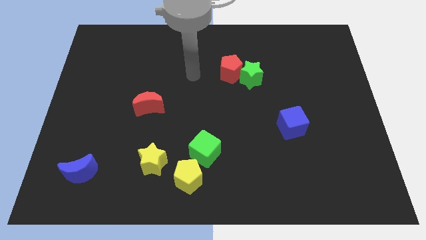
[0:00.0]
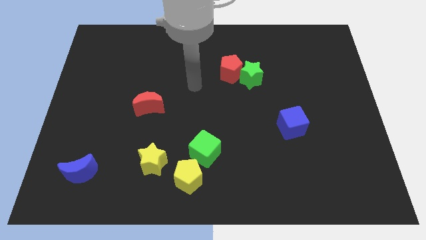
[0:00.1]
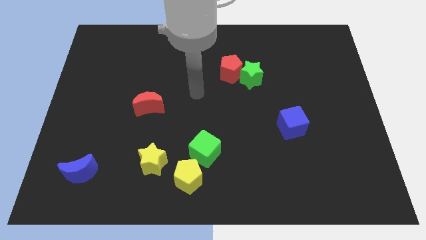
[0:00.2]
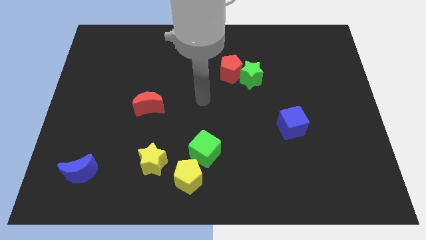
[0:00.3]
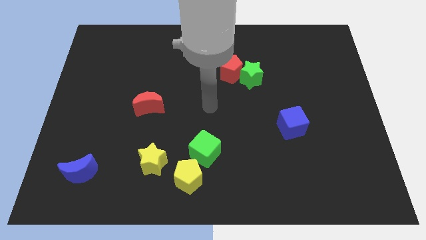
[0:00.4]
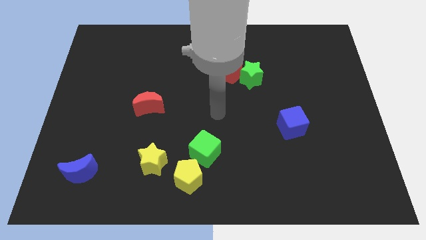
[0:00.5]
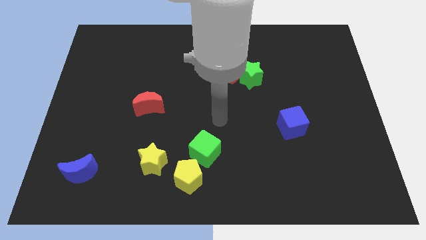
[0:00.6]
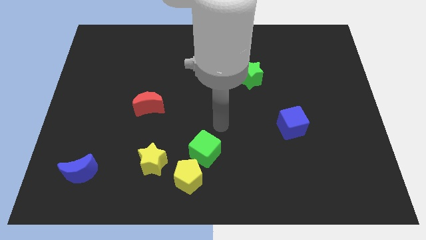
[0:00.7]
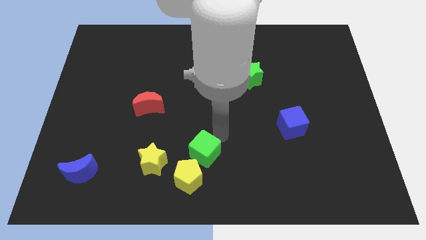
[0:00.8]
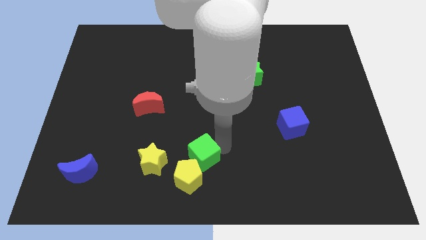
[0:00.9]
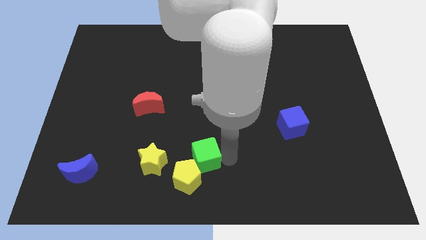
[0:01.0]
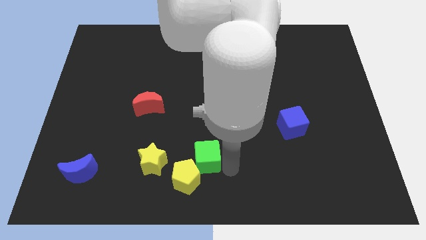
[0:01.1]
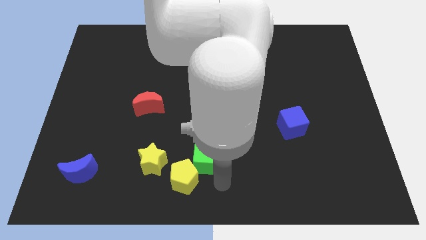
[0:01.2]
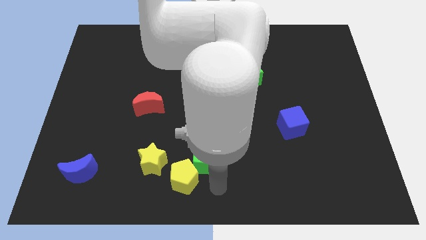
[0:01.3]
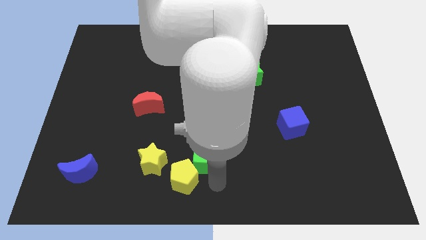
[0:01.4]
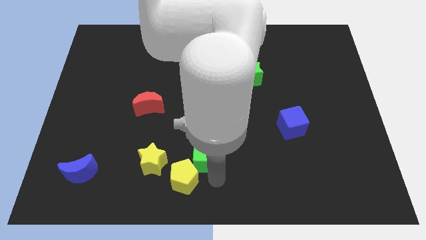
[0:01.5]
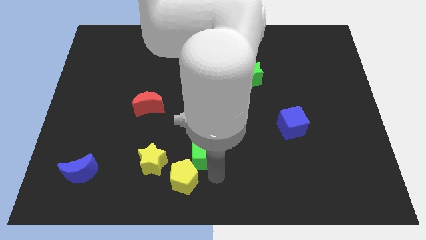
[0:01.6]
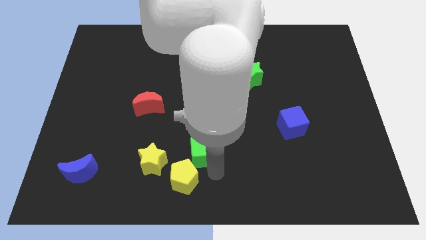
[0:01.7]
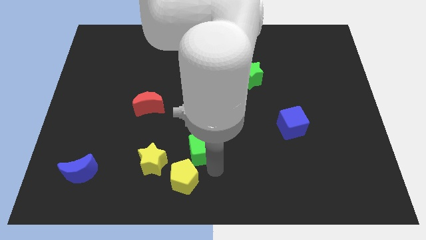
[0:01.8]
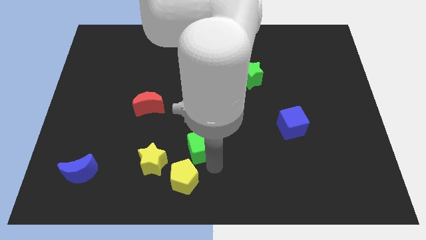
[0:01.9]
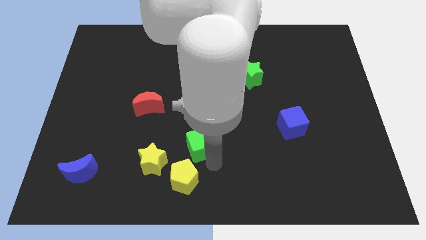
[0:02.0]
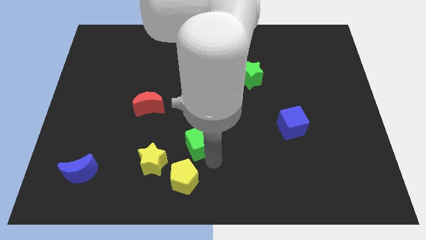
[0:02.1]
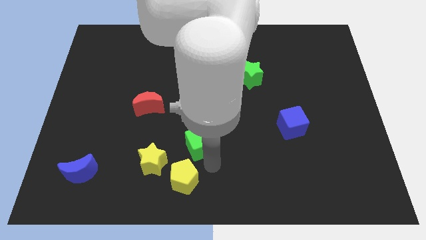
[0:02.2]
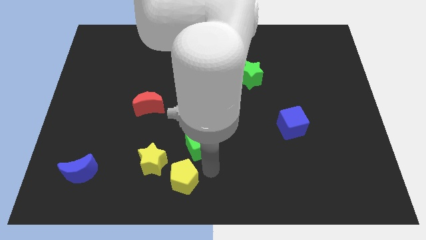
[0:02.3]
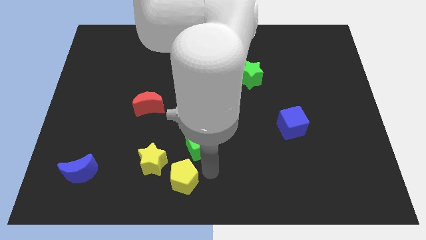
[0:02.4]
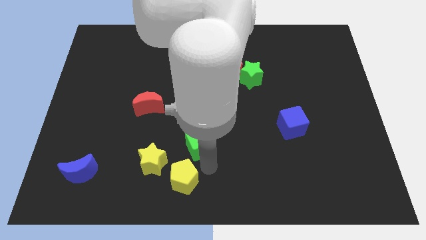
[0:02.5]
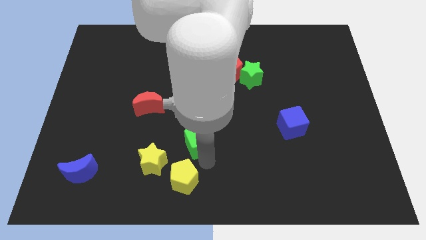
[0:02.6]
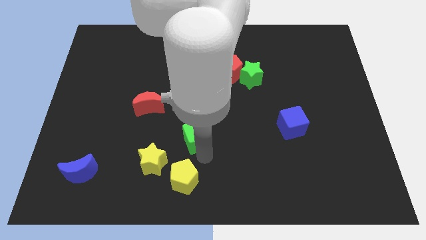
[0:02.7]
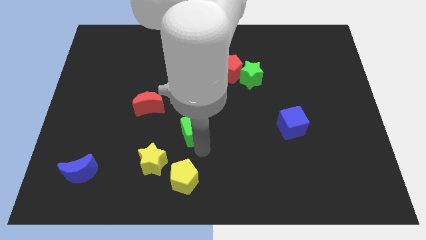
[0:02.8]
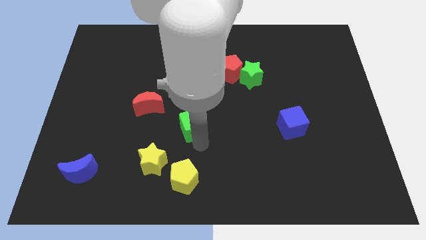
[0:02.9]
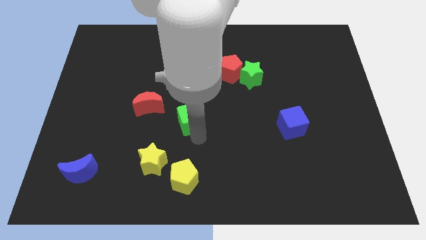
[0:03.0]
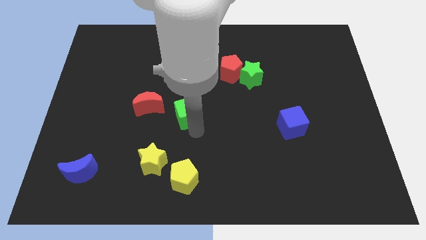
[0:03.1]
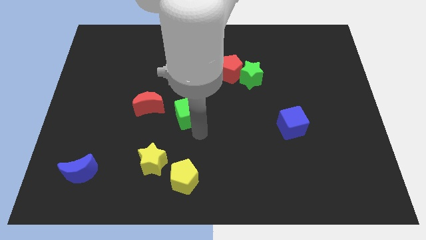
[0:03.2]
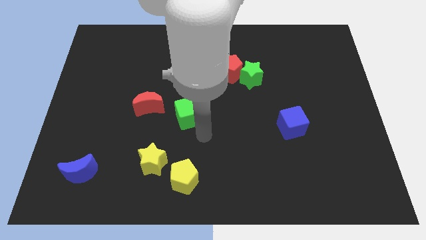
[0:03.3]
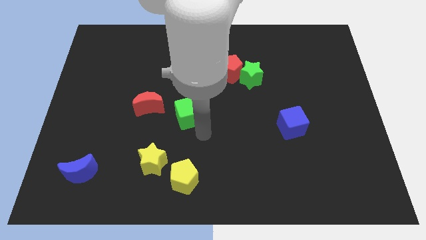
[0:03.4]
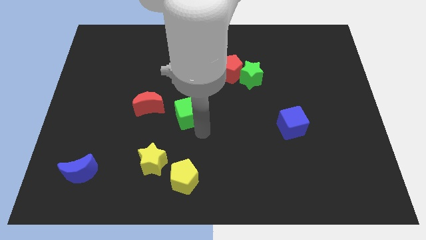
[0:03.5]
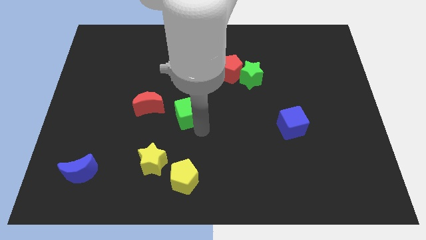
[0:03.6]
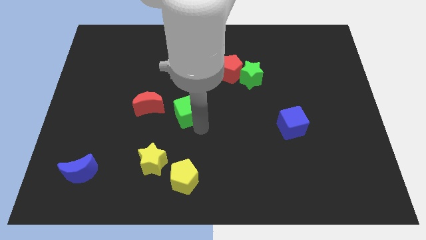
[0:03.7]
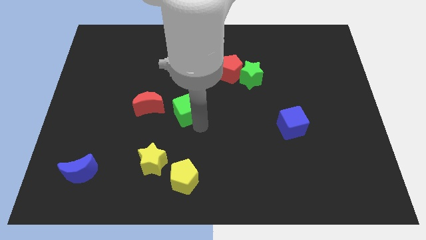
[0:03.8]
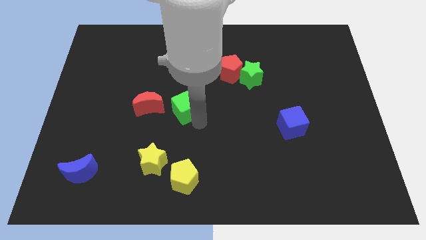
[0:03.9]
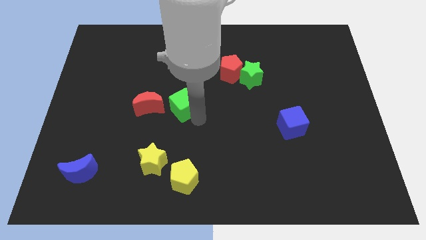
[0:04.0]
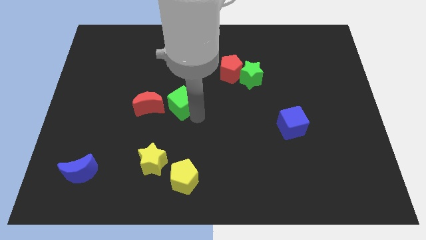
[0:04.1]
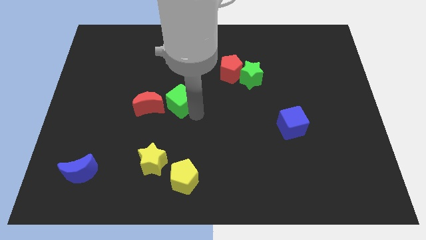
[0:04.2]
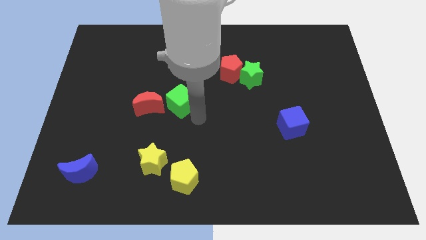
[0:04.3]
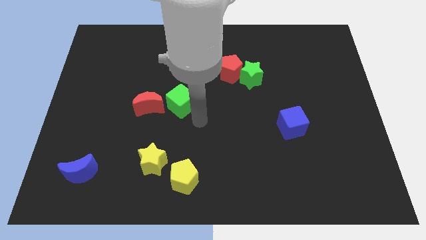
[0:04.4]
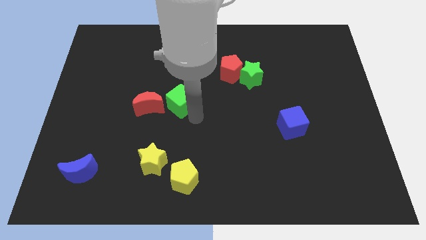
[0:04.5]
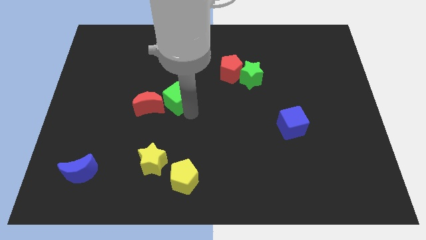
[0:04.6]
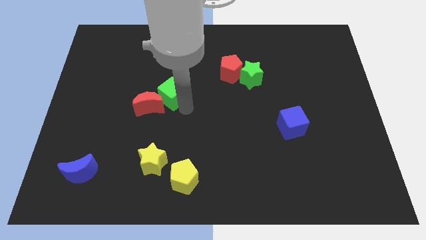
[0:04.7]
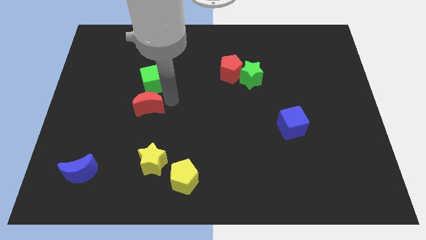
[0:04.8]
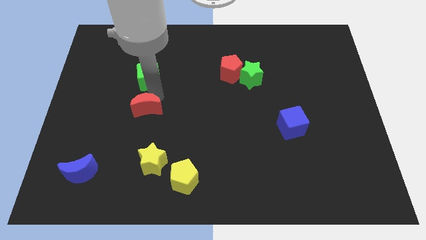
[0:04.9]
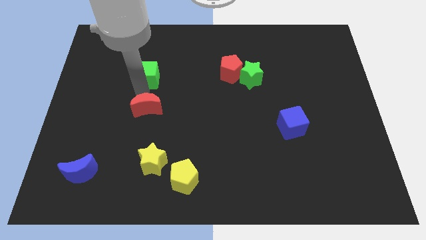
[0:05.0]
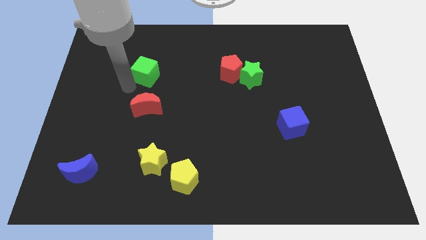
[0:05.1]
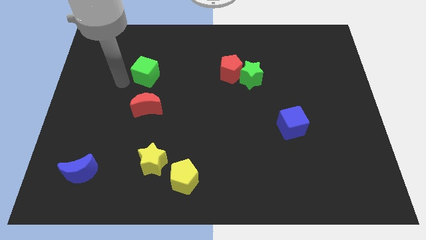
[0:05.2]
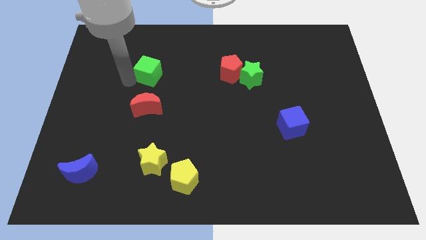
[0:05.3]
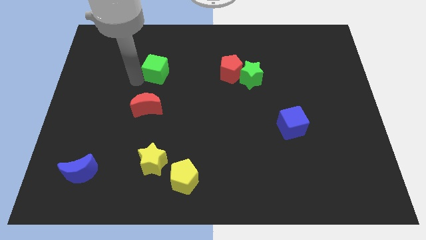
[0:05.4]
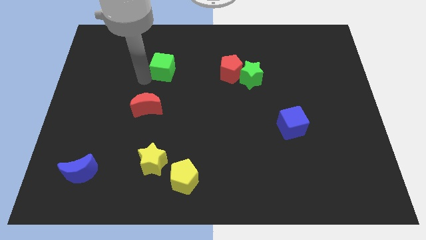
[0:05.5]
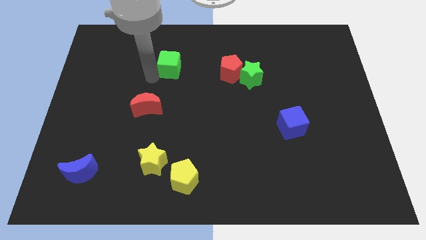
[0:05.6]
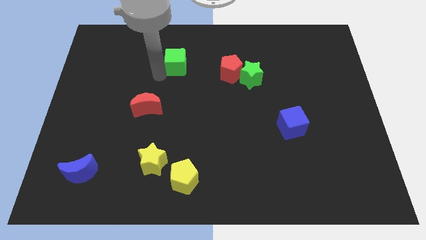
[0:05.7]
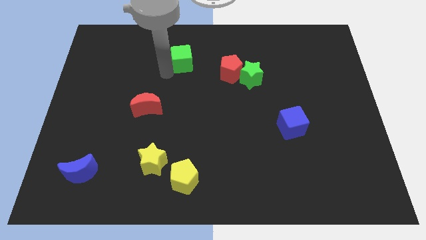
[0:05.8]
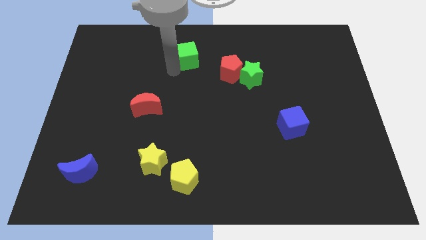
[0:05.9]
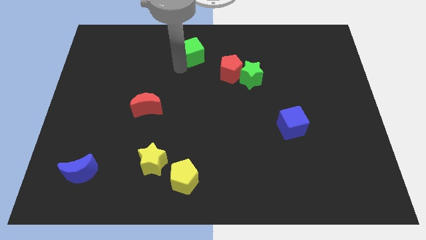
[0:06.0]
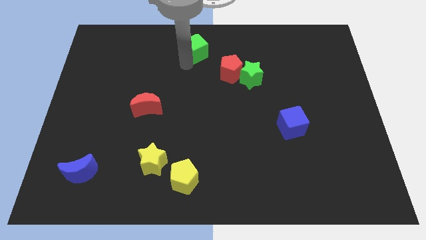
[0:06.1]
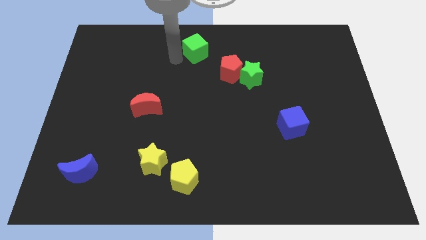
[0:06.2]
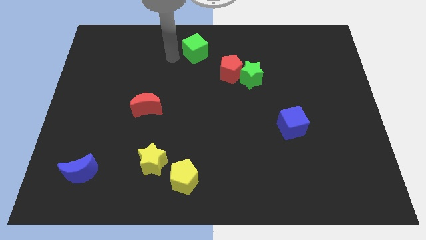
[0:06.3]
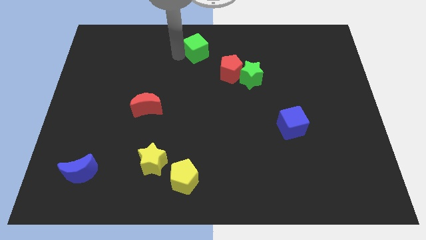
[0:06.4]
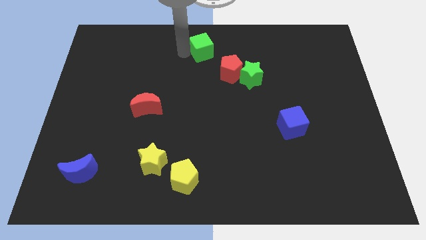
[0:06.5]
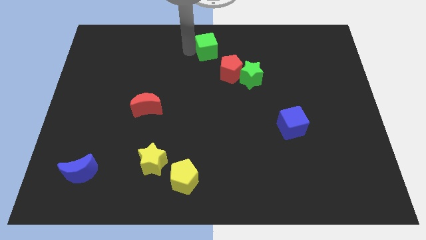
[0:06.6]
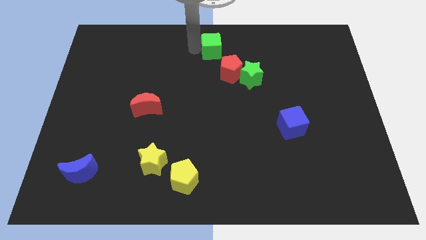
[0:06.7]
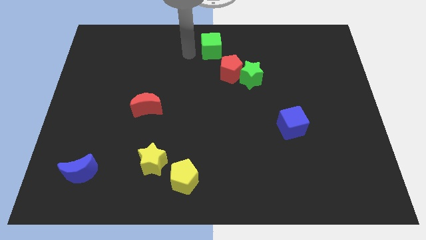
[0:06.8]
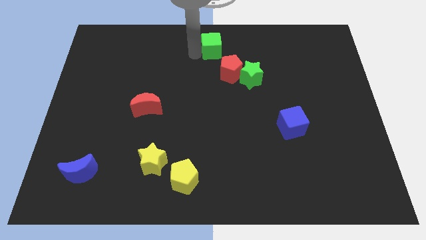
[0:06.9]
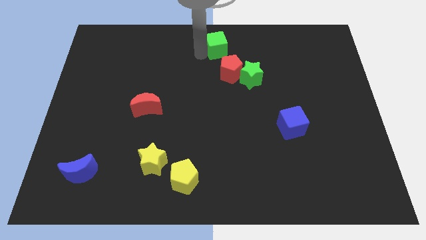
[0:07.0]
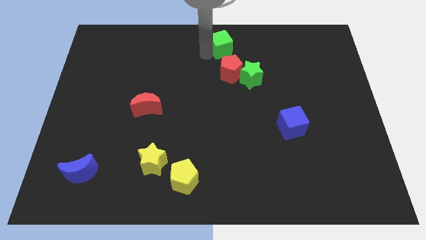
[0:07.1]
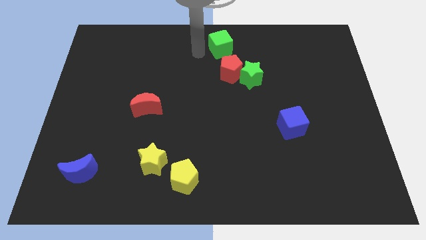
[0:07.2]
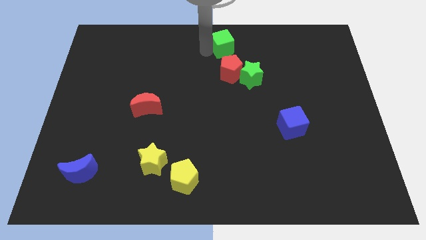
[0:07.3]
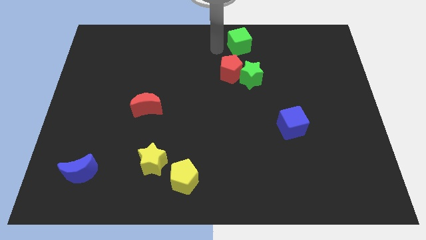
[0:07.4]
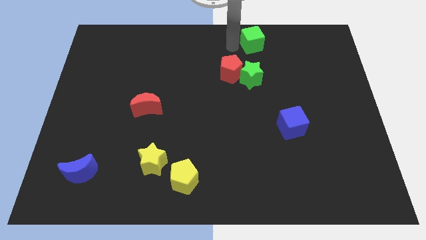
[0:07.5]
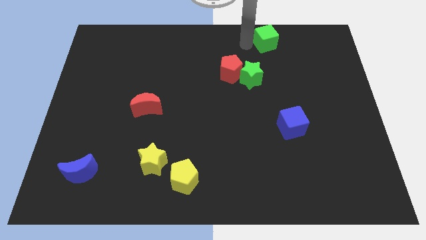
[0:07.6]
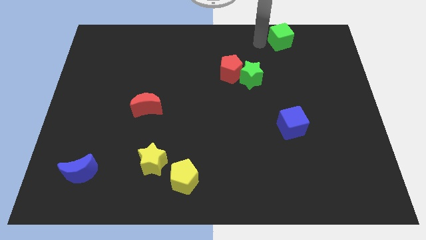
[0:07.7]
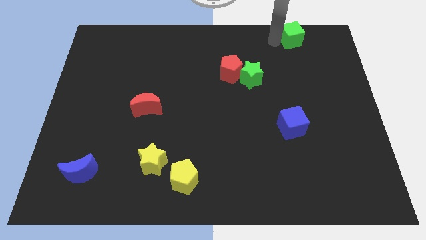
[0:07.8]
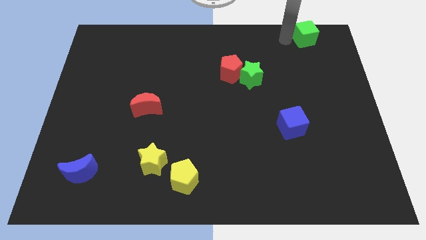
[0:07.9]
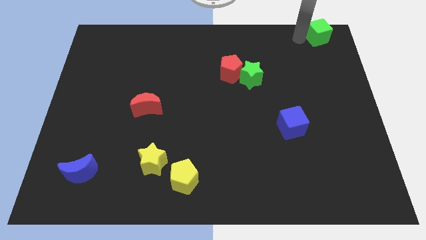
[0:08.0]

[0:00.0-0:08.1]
put the green cube to the upper right corner
